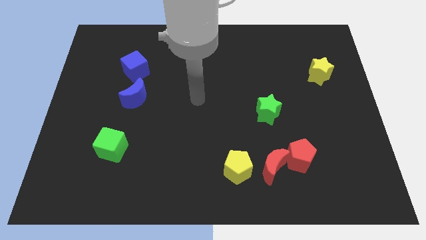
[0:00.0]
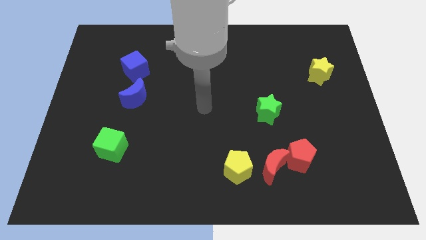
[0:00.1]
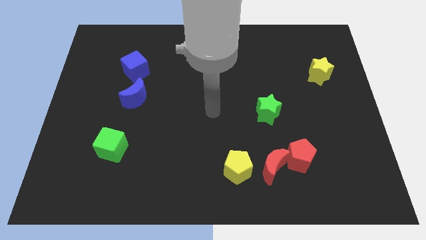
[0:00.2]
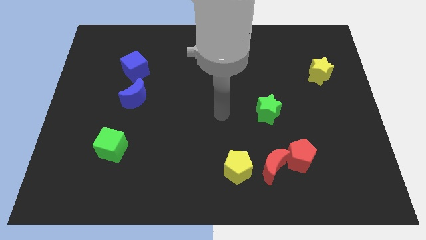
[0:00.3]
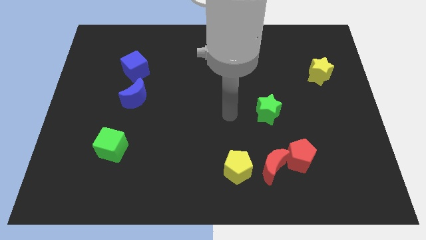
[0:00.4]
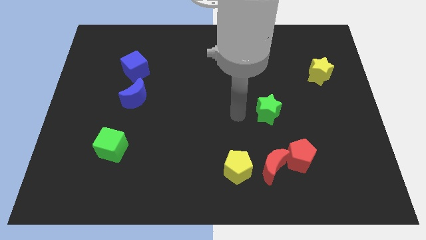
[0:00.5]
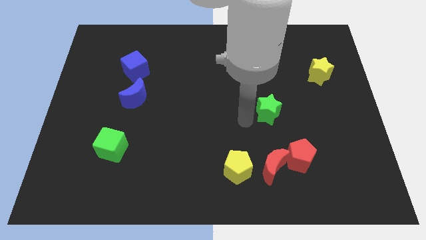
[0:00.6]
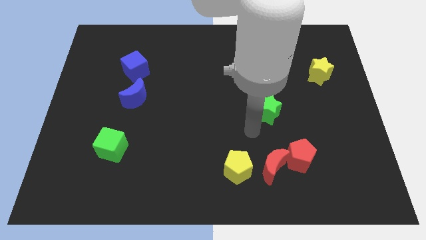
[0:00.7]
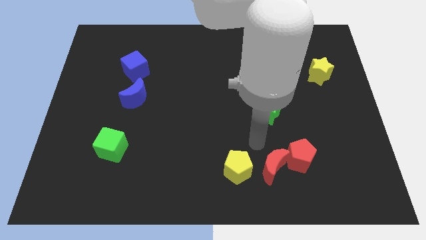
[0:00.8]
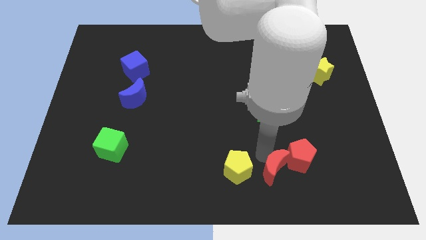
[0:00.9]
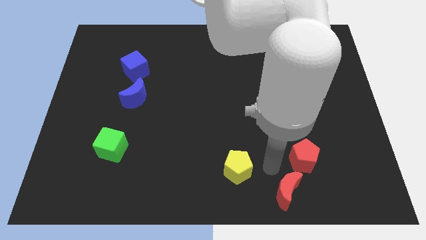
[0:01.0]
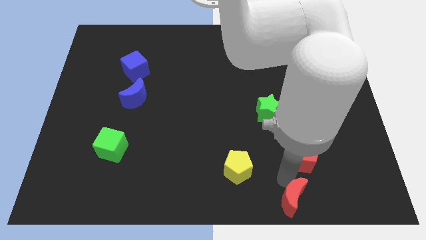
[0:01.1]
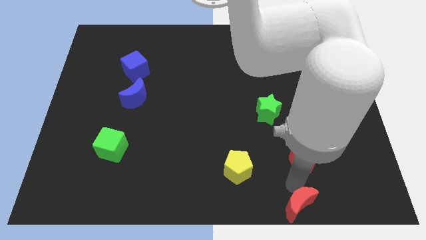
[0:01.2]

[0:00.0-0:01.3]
move the red pentagon away from the red moon

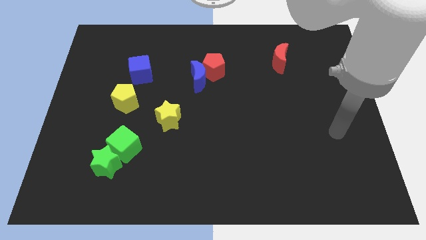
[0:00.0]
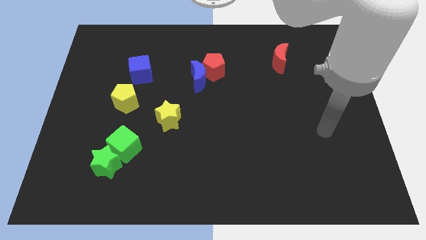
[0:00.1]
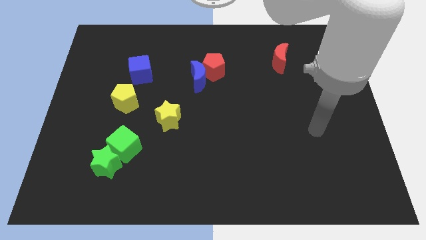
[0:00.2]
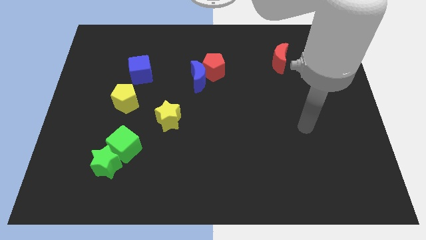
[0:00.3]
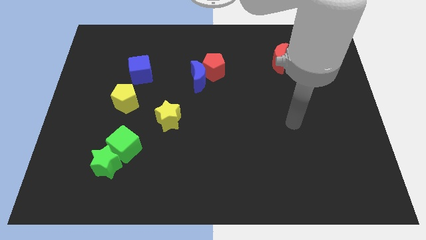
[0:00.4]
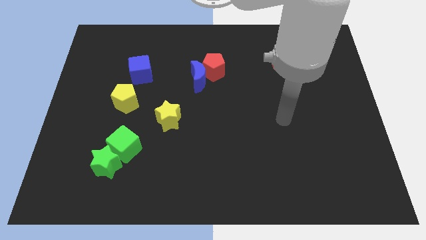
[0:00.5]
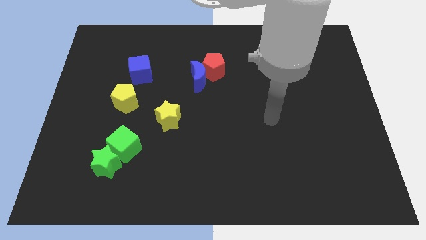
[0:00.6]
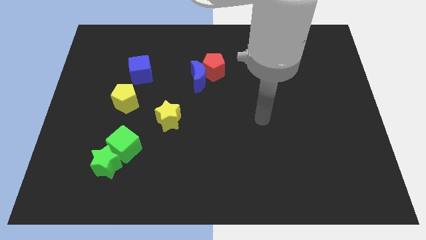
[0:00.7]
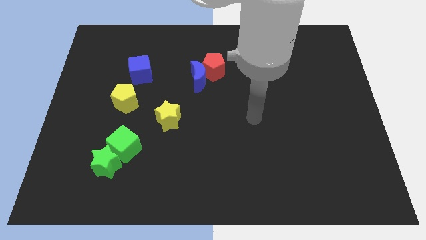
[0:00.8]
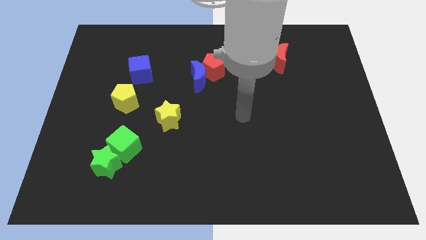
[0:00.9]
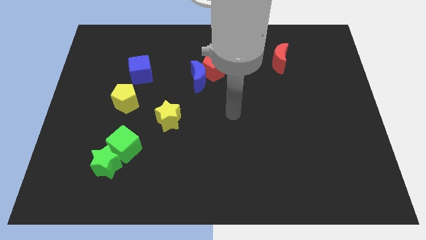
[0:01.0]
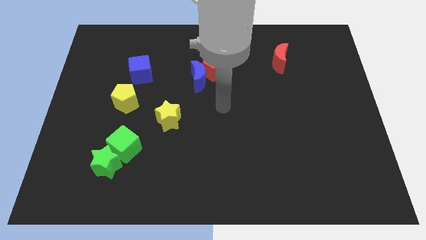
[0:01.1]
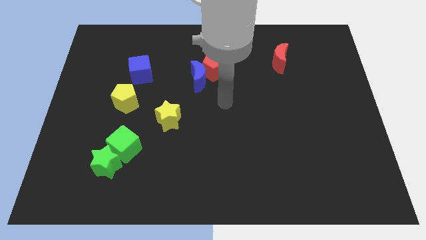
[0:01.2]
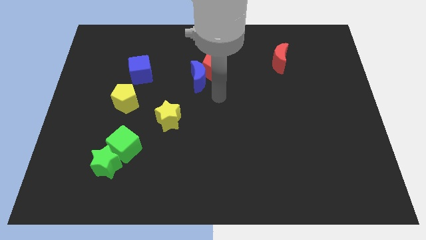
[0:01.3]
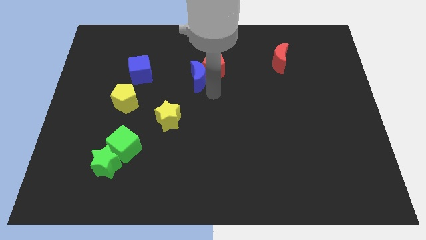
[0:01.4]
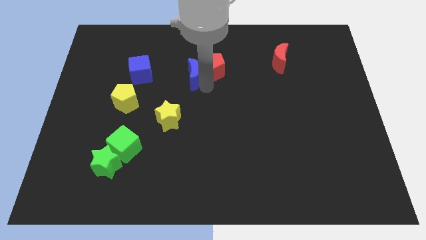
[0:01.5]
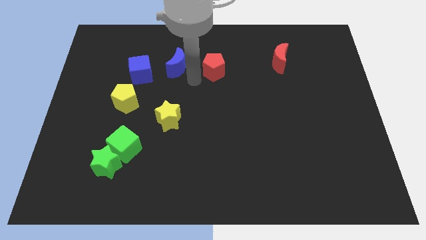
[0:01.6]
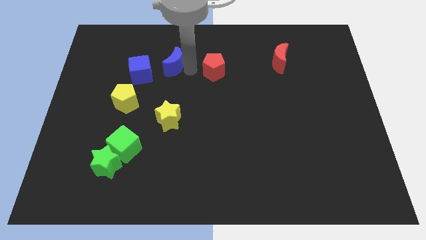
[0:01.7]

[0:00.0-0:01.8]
move the red pentagon away from the blue moon

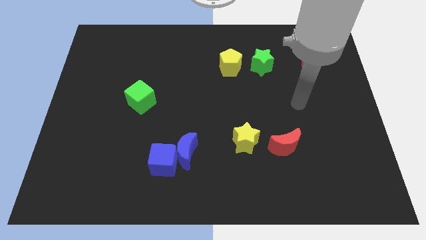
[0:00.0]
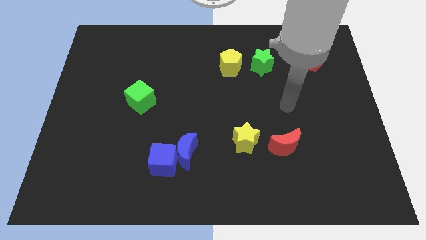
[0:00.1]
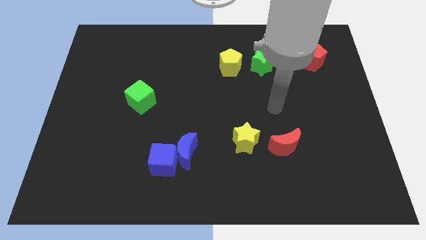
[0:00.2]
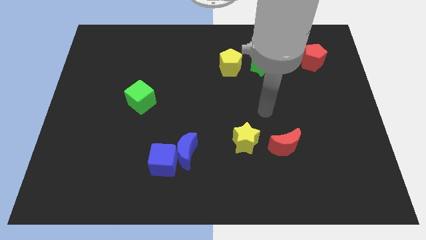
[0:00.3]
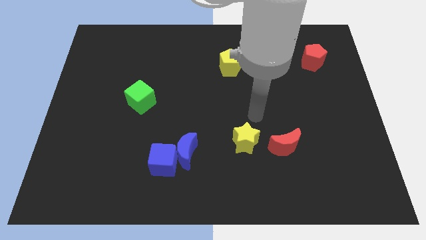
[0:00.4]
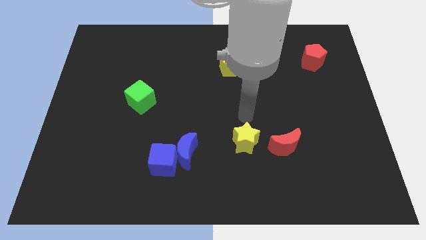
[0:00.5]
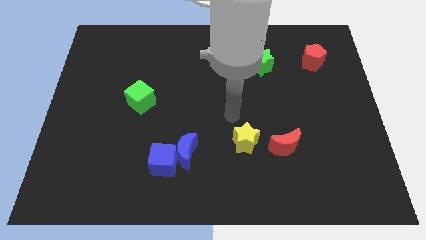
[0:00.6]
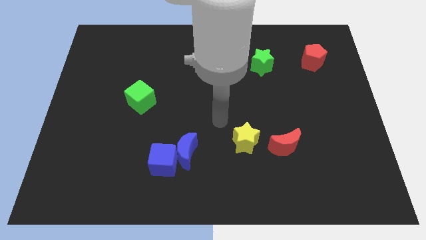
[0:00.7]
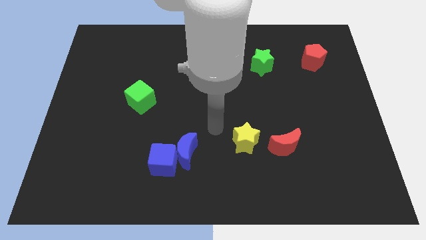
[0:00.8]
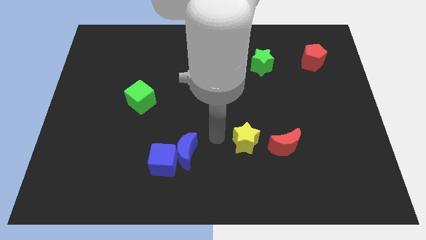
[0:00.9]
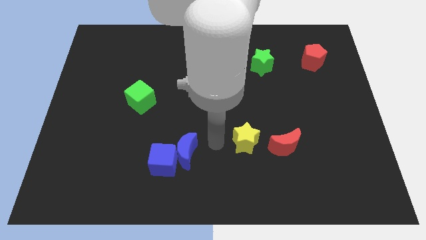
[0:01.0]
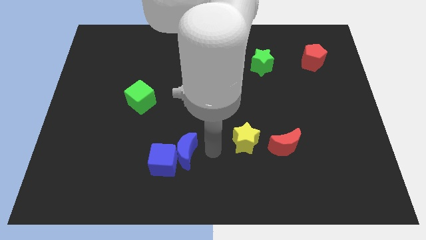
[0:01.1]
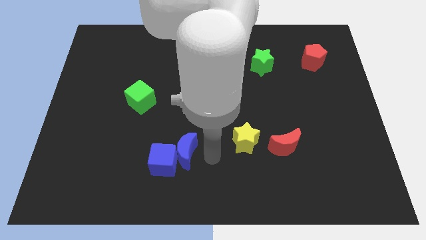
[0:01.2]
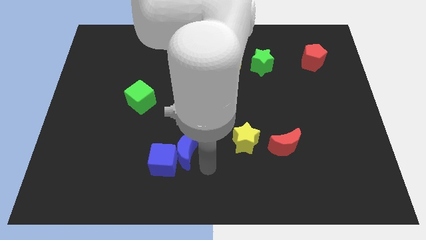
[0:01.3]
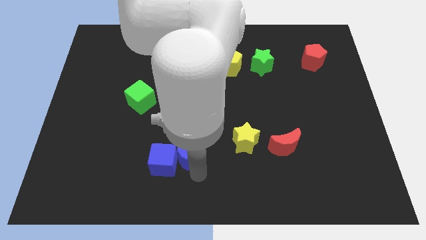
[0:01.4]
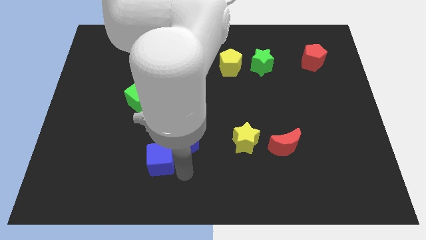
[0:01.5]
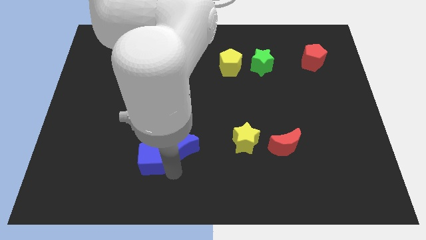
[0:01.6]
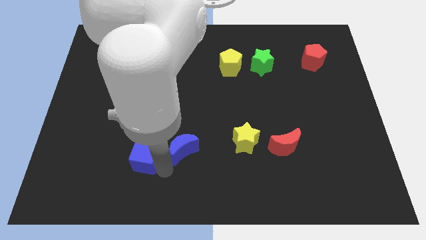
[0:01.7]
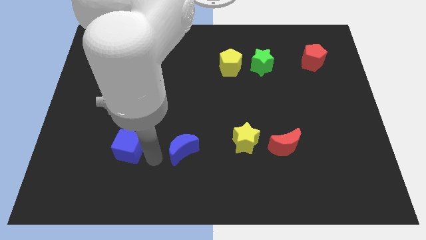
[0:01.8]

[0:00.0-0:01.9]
move the blue moon away from the blue cube

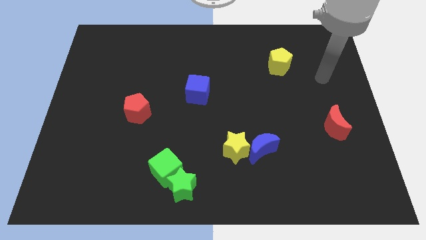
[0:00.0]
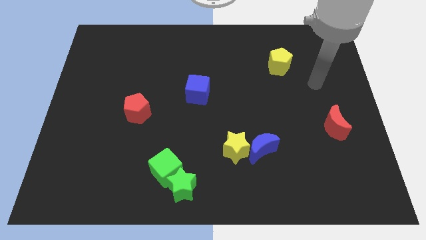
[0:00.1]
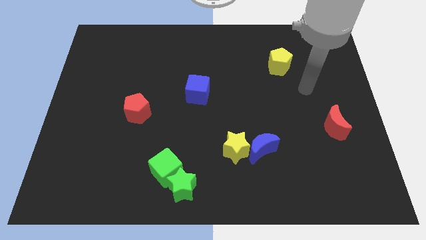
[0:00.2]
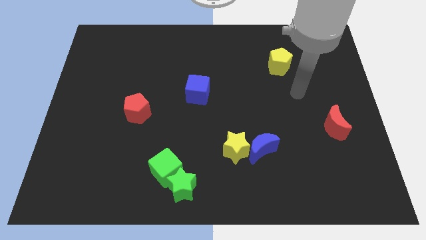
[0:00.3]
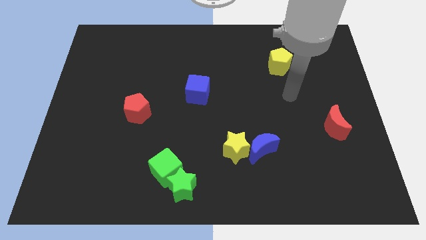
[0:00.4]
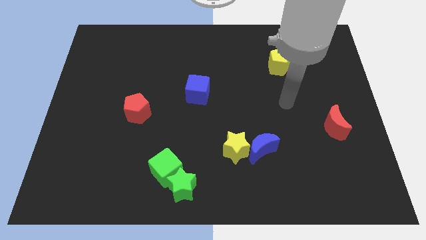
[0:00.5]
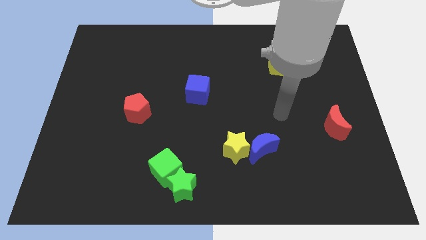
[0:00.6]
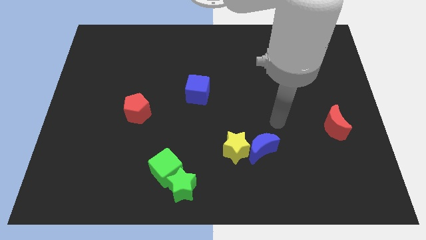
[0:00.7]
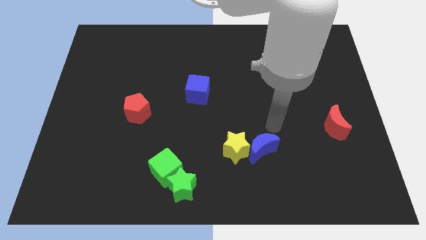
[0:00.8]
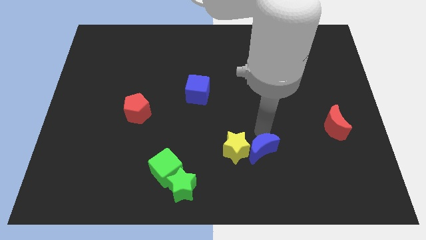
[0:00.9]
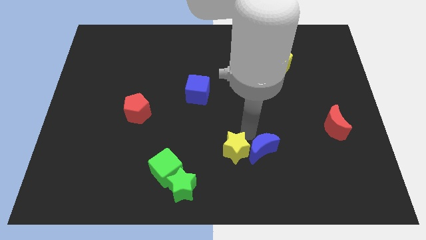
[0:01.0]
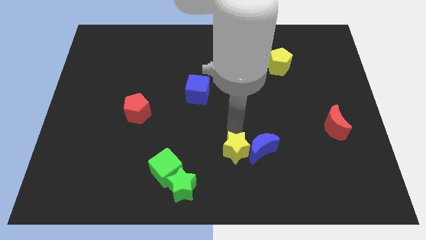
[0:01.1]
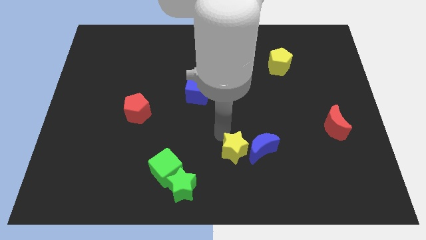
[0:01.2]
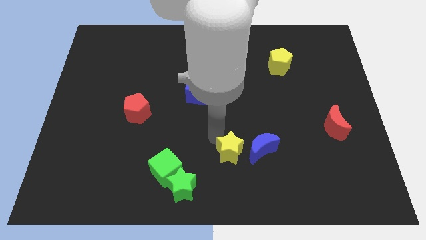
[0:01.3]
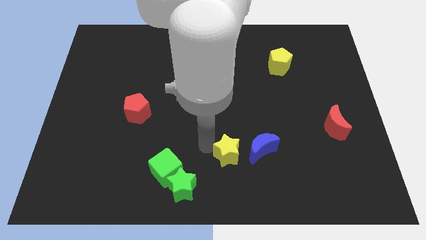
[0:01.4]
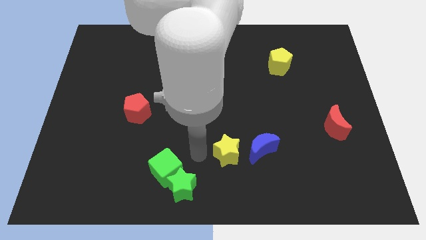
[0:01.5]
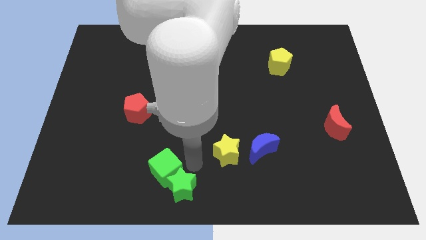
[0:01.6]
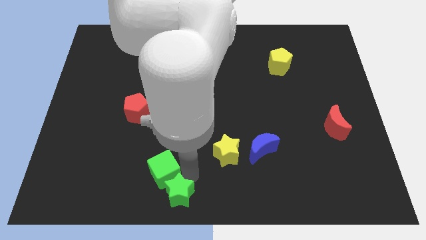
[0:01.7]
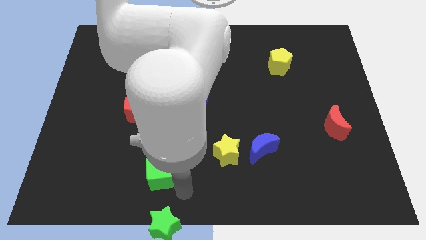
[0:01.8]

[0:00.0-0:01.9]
move the green cube away from the green star

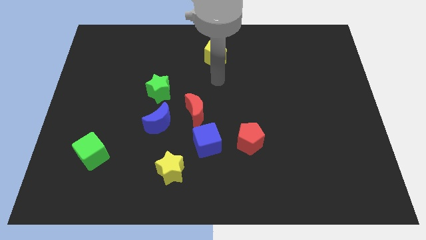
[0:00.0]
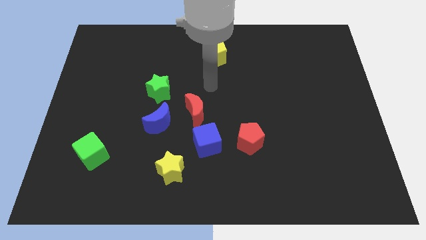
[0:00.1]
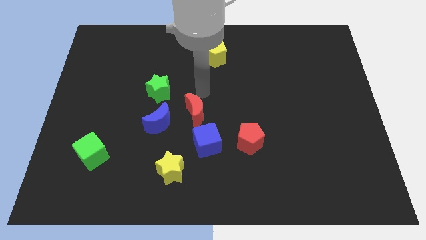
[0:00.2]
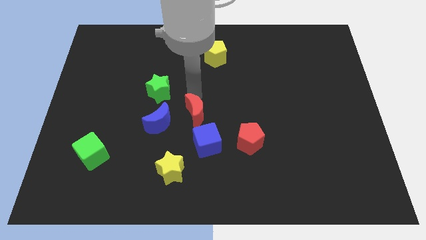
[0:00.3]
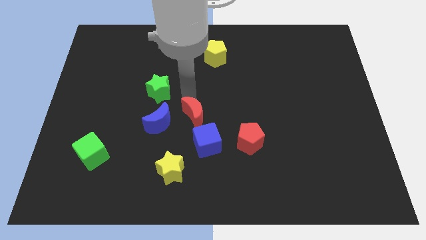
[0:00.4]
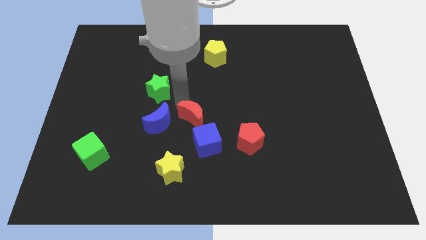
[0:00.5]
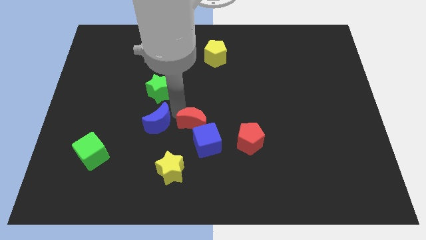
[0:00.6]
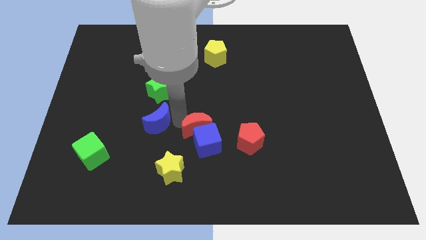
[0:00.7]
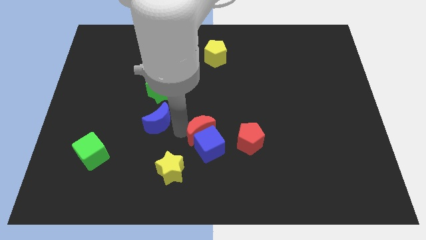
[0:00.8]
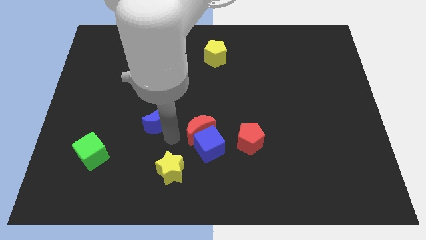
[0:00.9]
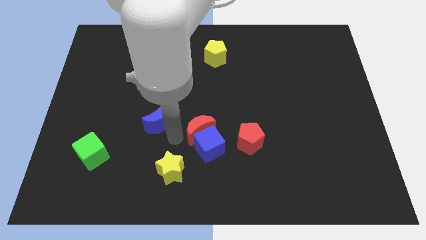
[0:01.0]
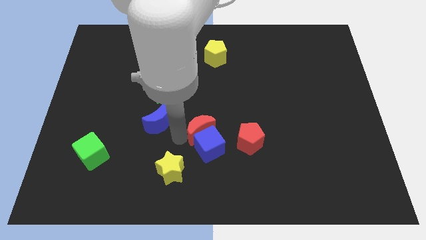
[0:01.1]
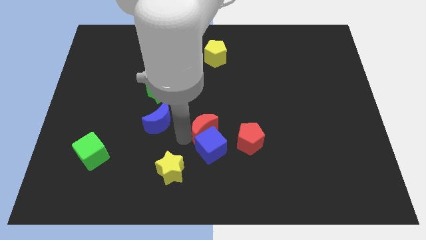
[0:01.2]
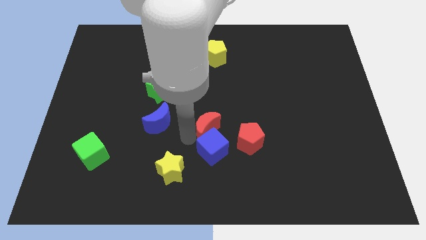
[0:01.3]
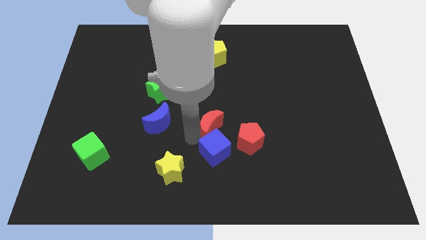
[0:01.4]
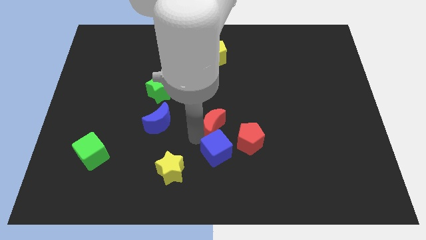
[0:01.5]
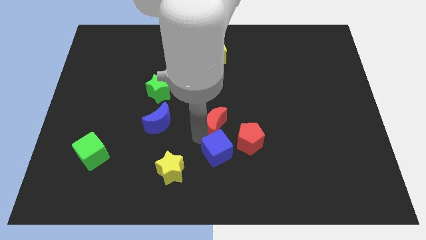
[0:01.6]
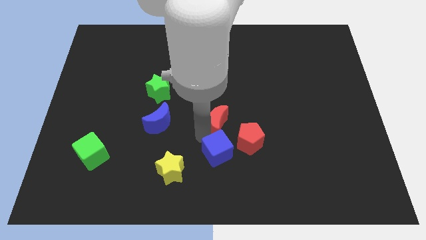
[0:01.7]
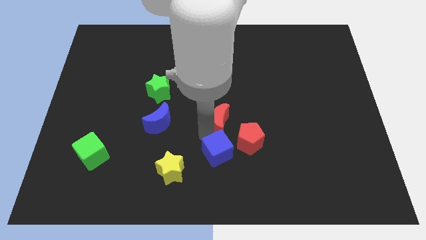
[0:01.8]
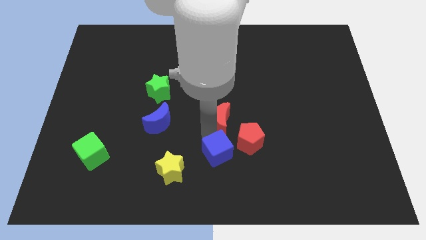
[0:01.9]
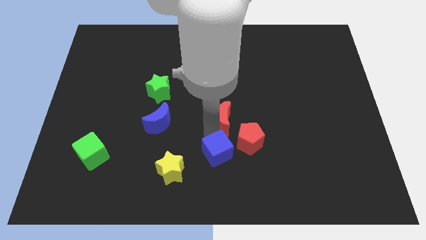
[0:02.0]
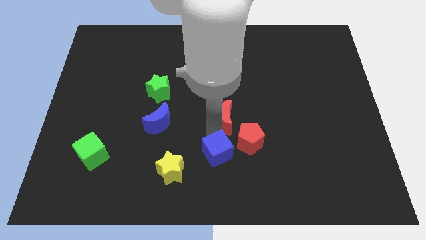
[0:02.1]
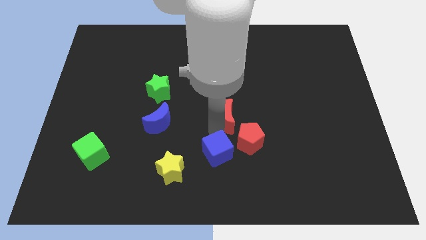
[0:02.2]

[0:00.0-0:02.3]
separate the red moon from the blue moon and blue cube

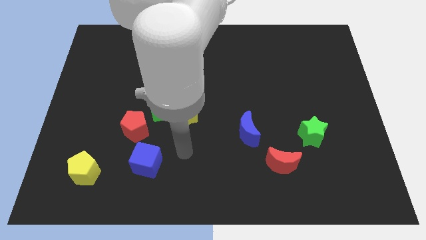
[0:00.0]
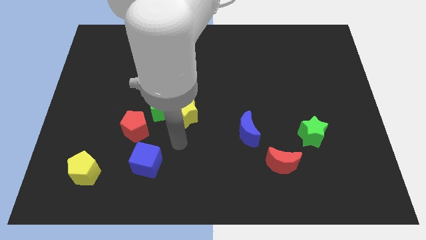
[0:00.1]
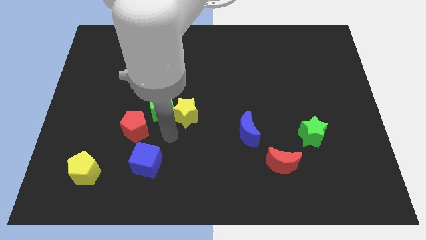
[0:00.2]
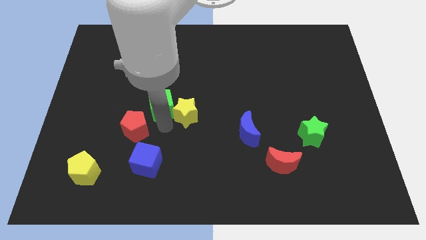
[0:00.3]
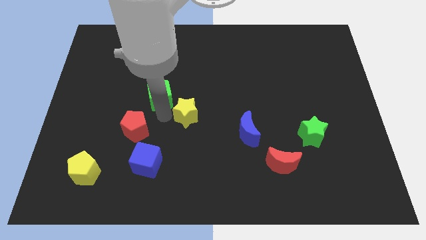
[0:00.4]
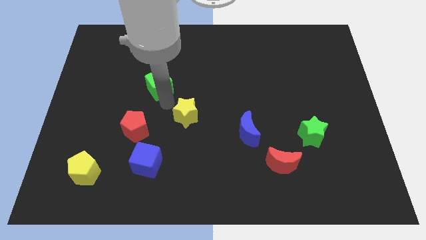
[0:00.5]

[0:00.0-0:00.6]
separate the yellow star from the green cube